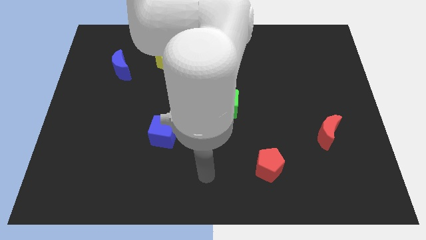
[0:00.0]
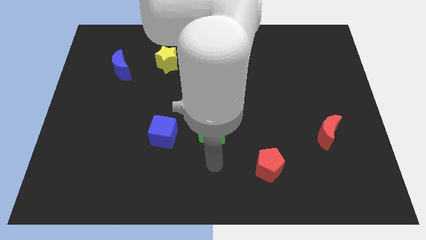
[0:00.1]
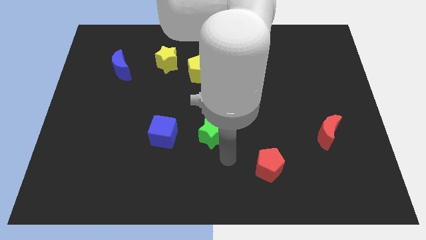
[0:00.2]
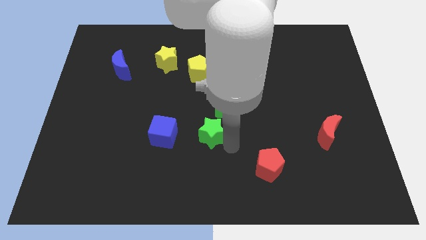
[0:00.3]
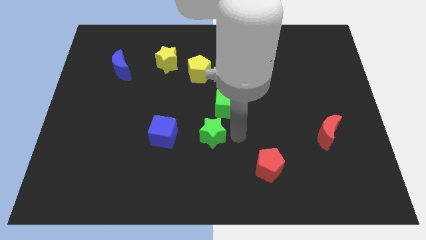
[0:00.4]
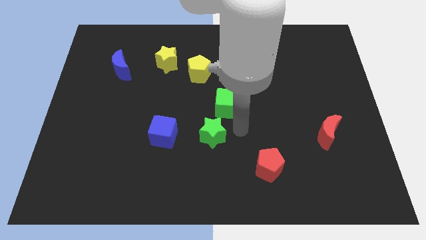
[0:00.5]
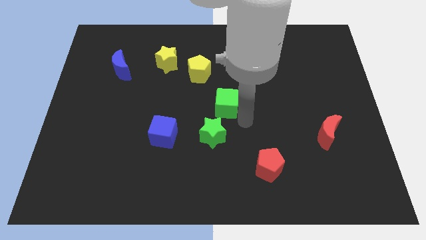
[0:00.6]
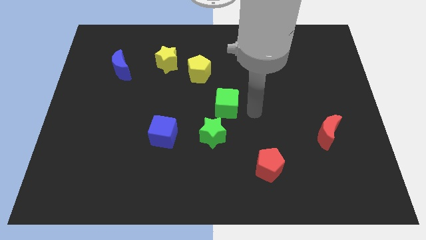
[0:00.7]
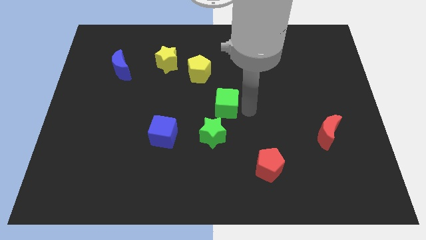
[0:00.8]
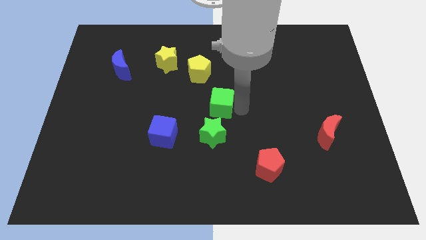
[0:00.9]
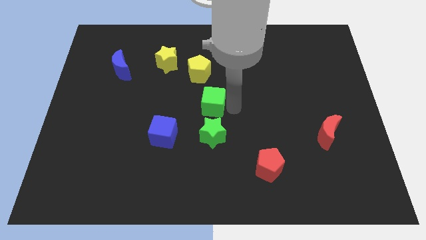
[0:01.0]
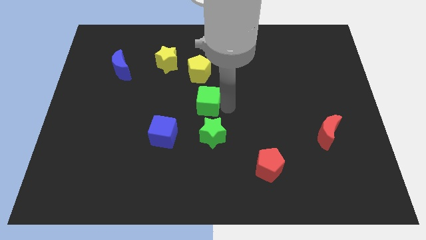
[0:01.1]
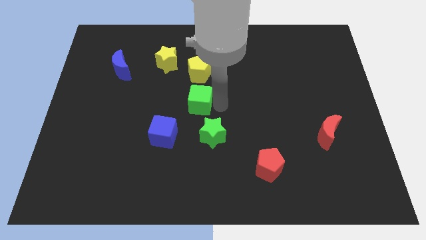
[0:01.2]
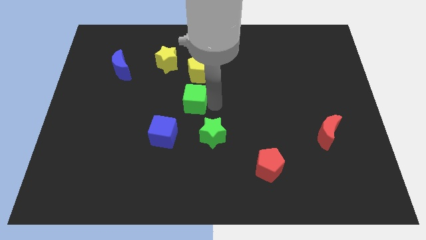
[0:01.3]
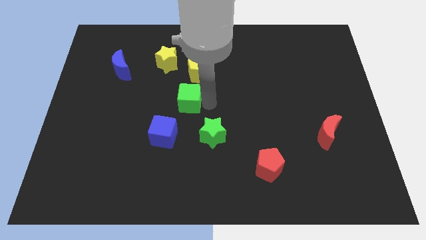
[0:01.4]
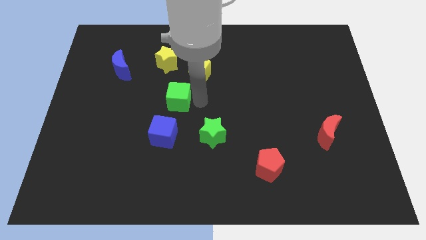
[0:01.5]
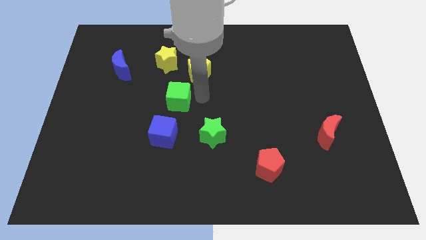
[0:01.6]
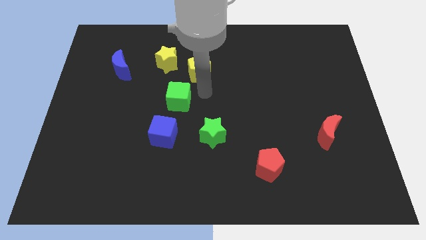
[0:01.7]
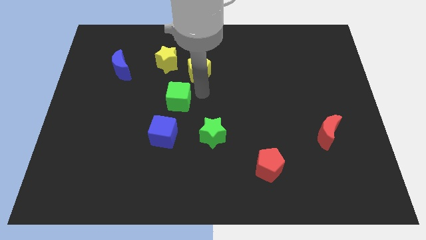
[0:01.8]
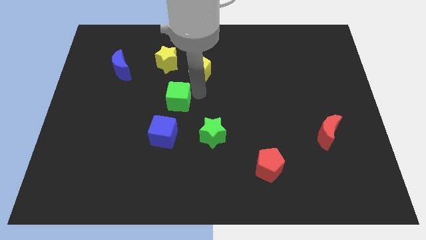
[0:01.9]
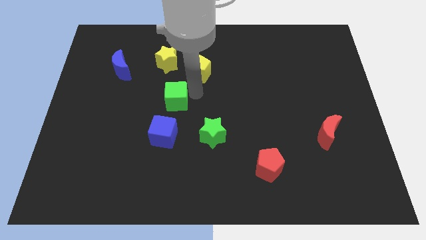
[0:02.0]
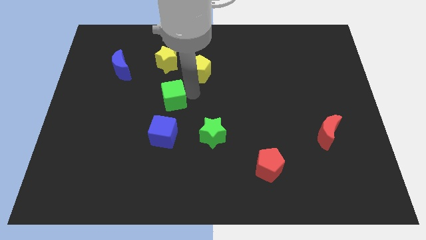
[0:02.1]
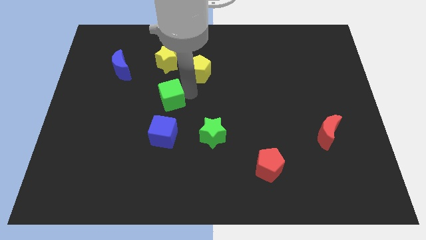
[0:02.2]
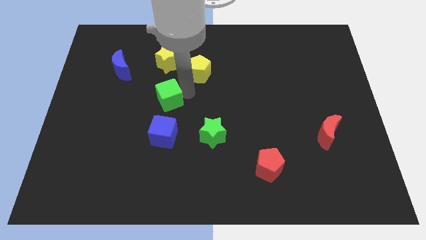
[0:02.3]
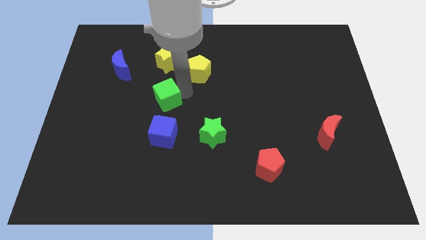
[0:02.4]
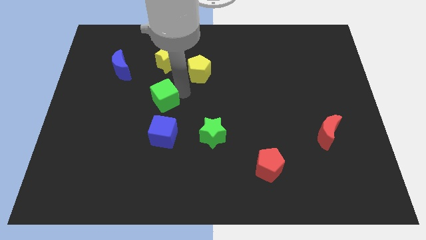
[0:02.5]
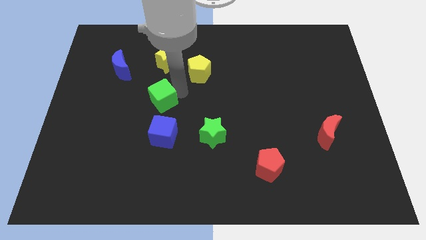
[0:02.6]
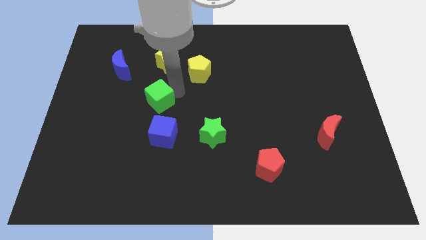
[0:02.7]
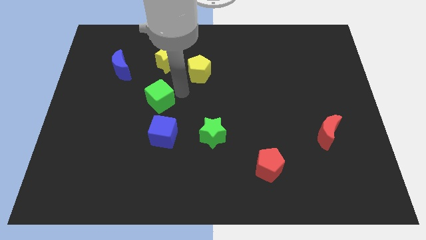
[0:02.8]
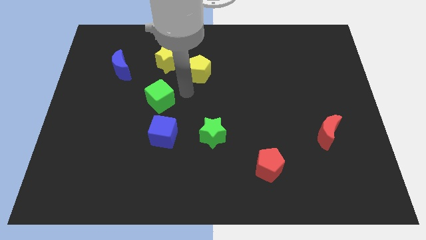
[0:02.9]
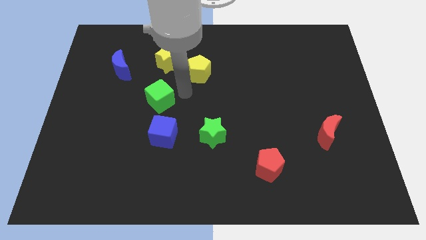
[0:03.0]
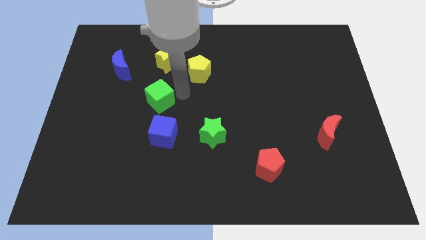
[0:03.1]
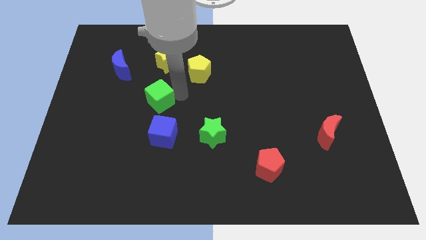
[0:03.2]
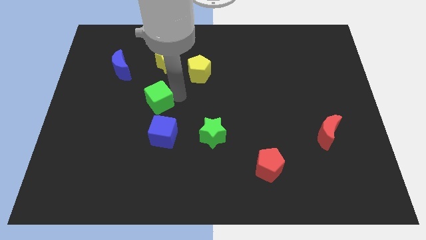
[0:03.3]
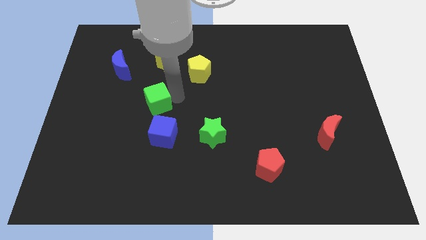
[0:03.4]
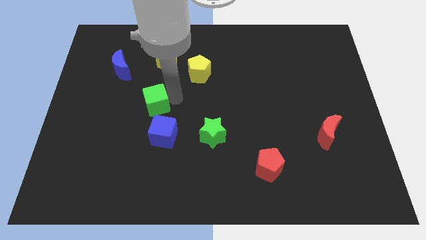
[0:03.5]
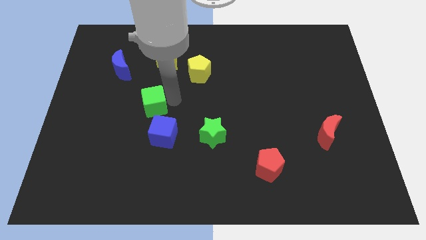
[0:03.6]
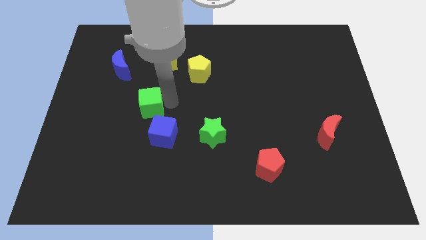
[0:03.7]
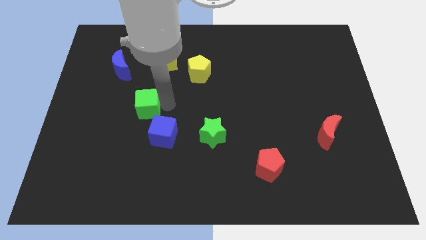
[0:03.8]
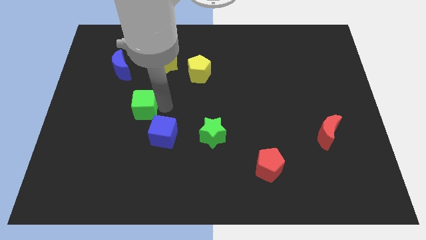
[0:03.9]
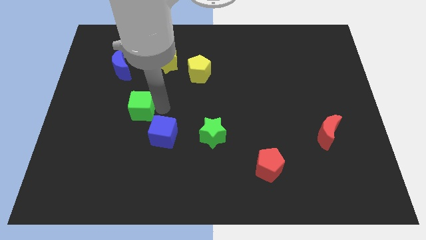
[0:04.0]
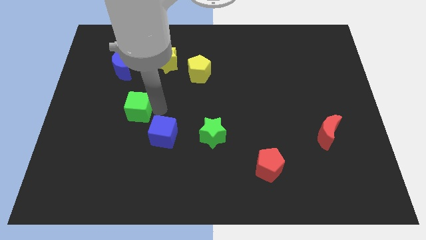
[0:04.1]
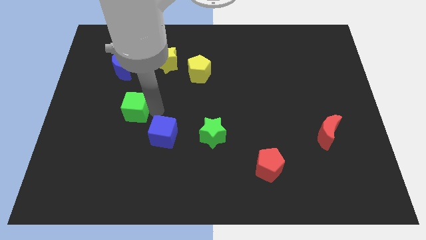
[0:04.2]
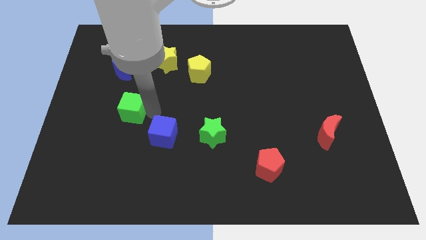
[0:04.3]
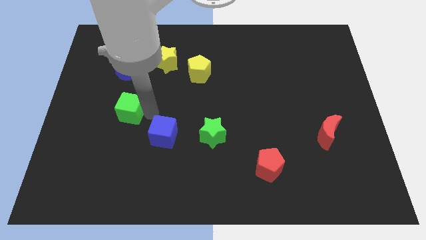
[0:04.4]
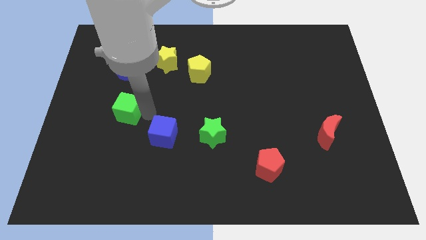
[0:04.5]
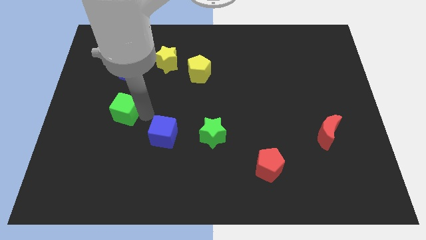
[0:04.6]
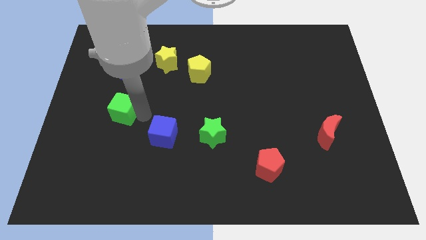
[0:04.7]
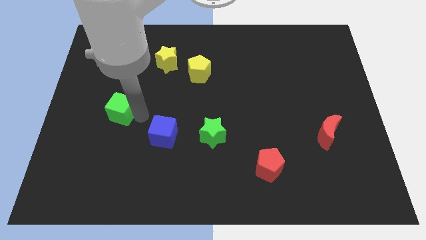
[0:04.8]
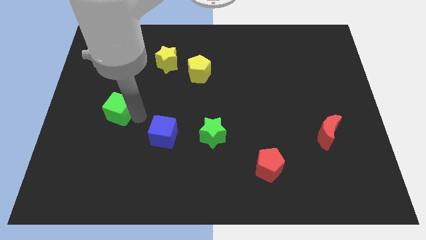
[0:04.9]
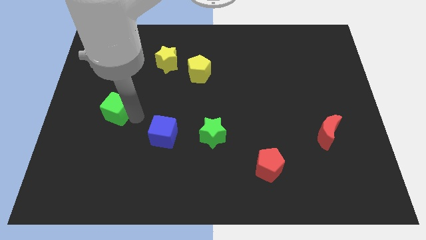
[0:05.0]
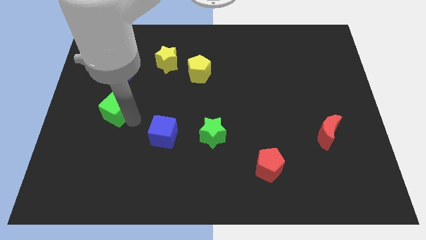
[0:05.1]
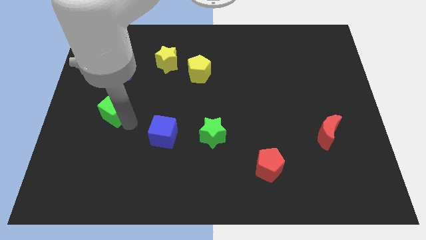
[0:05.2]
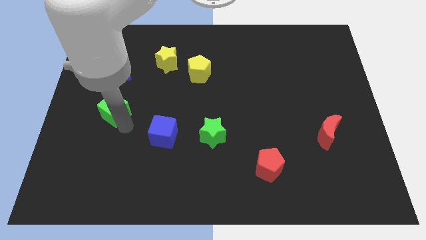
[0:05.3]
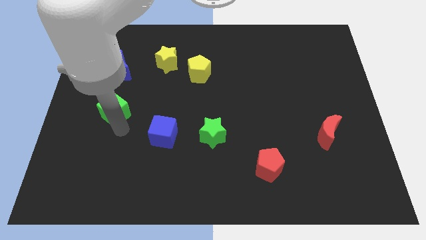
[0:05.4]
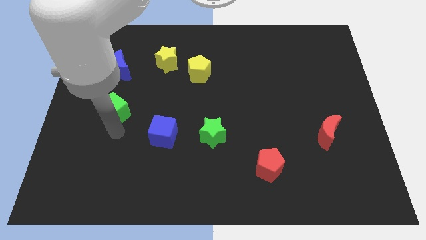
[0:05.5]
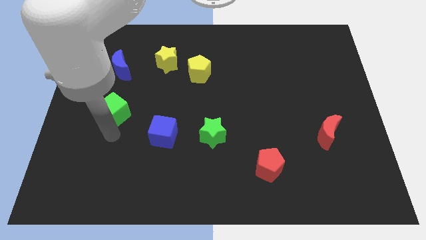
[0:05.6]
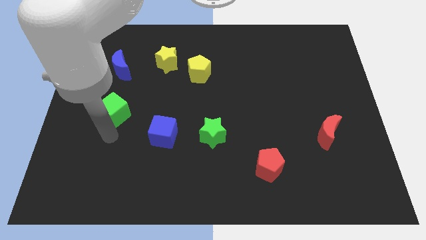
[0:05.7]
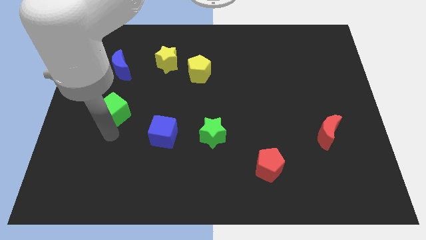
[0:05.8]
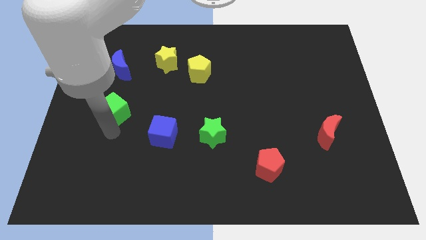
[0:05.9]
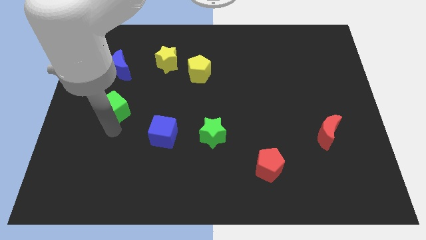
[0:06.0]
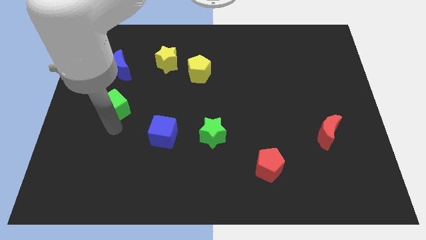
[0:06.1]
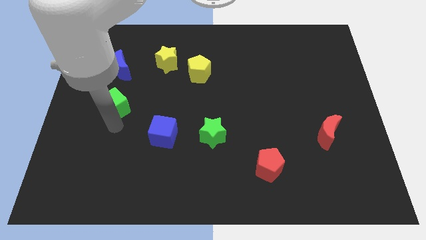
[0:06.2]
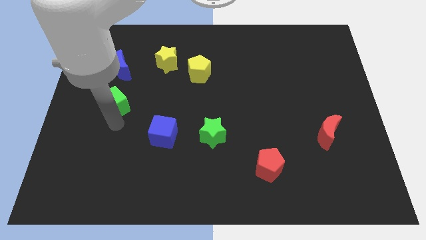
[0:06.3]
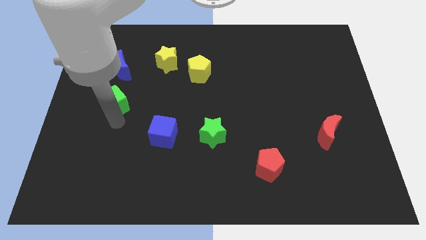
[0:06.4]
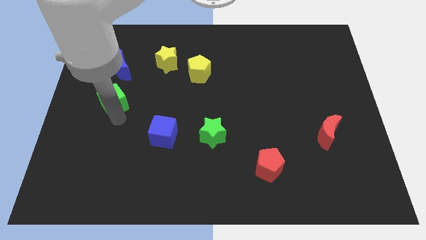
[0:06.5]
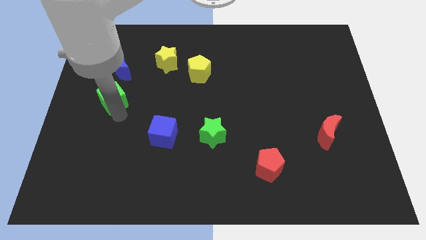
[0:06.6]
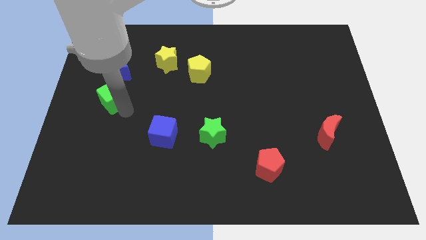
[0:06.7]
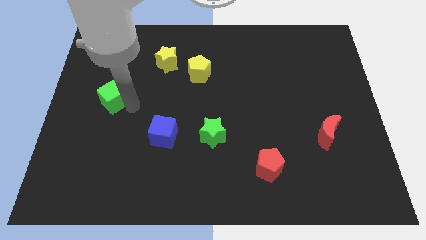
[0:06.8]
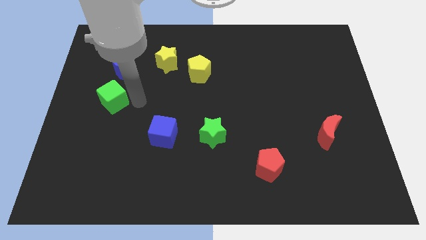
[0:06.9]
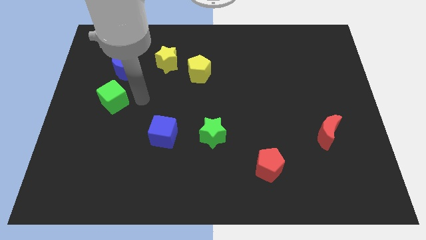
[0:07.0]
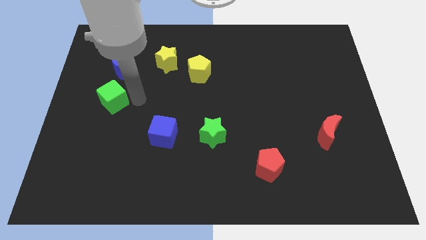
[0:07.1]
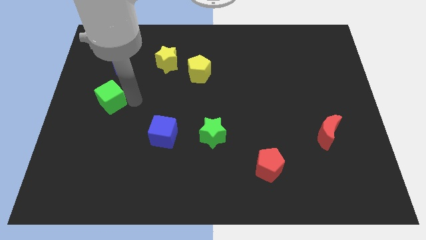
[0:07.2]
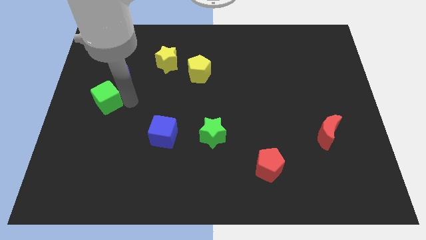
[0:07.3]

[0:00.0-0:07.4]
slide the green cube to the left side
